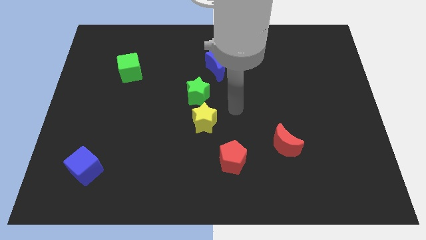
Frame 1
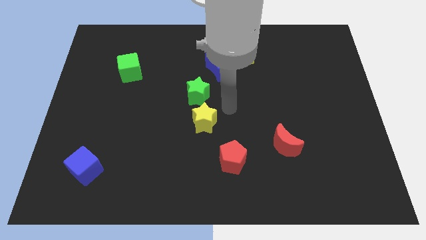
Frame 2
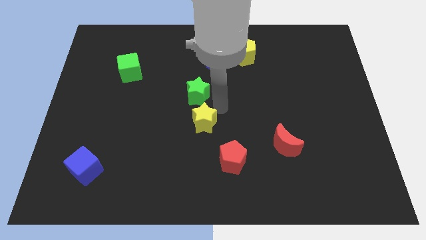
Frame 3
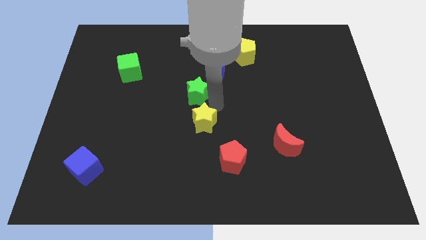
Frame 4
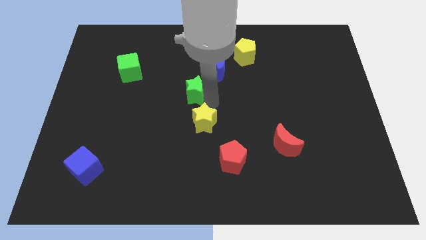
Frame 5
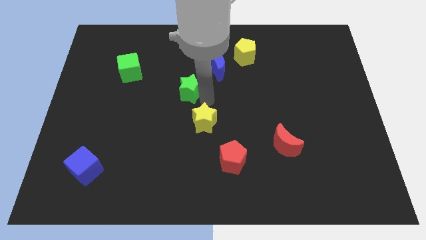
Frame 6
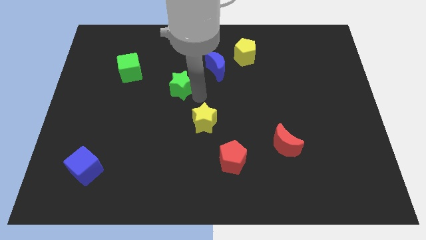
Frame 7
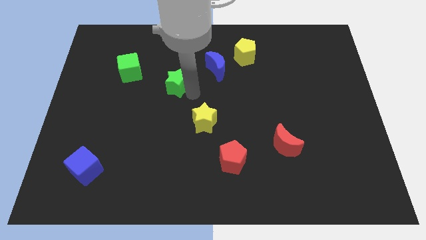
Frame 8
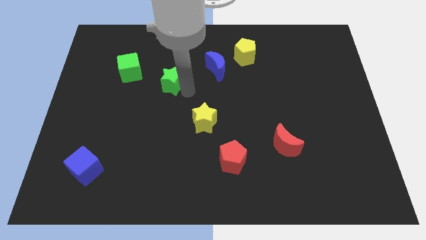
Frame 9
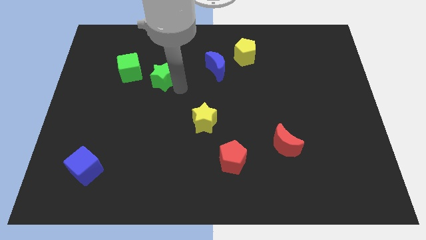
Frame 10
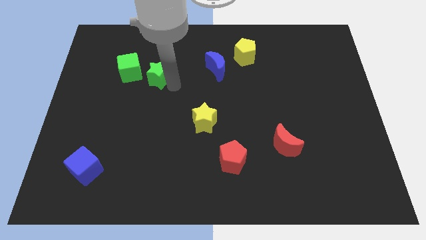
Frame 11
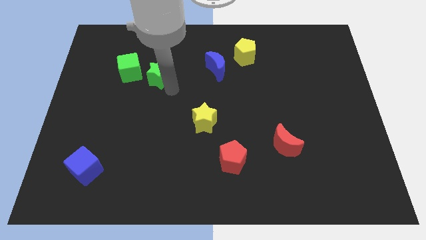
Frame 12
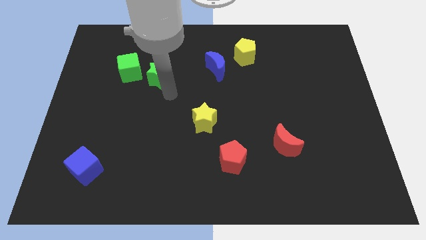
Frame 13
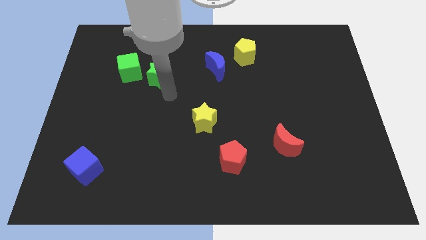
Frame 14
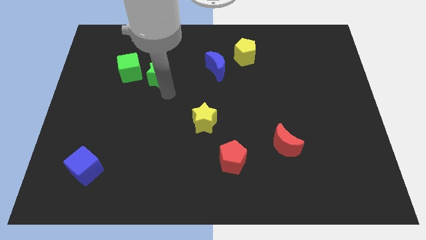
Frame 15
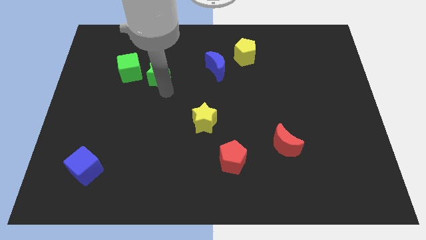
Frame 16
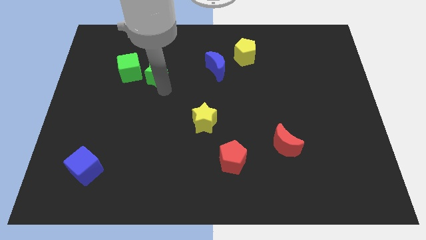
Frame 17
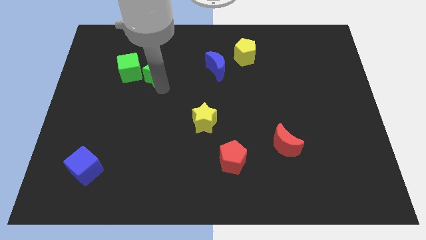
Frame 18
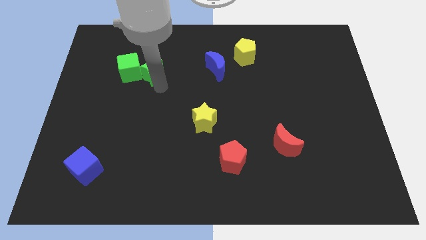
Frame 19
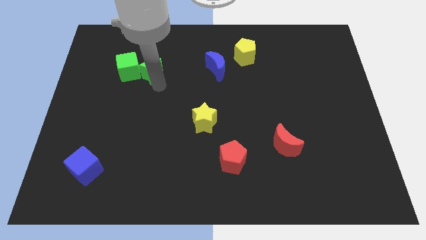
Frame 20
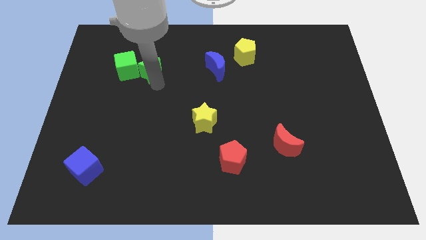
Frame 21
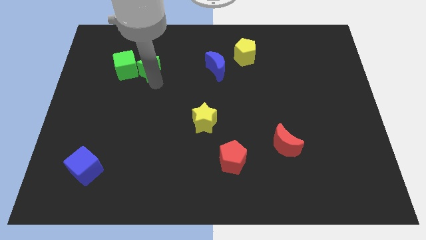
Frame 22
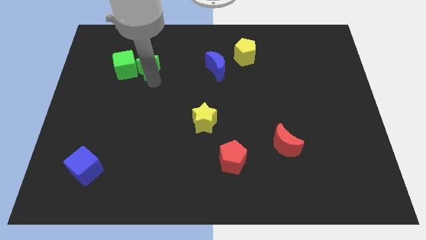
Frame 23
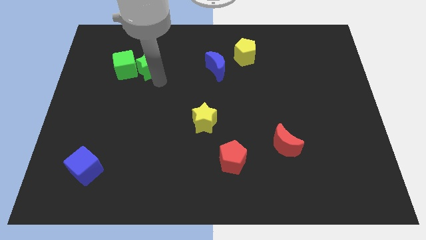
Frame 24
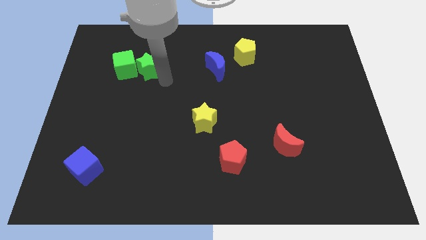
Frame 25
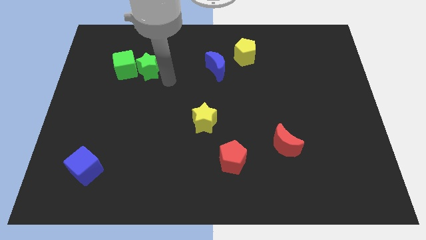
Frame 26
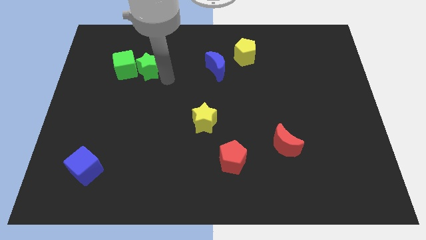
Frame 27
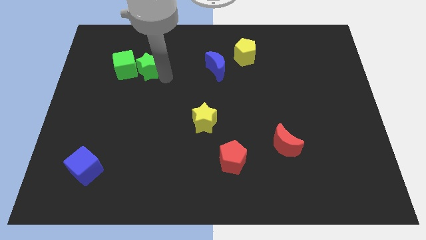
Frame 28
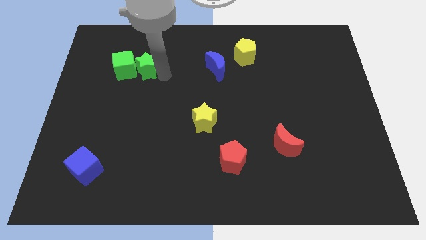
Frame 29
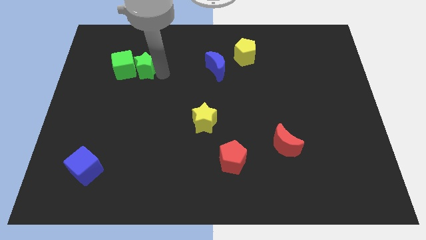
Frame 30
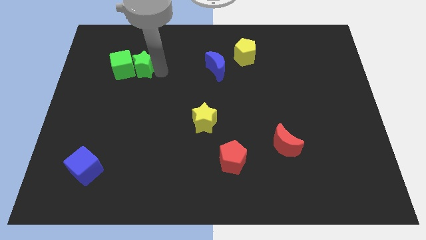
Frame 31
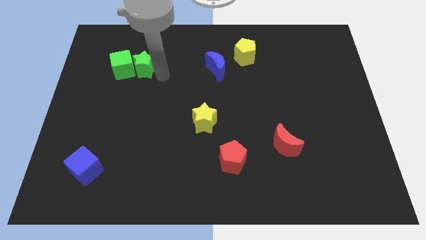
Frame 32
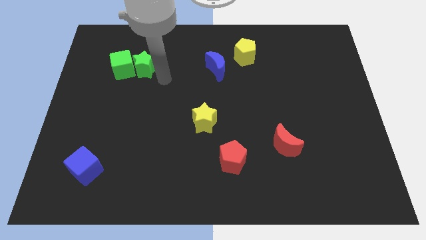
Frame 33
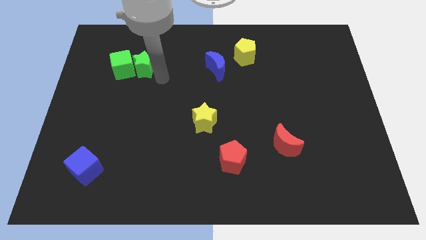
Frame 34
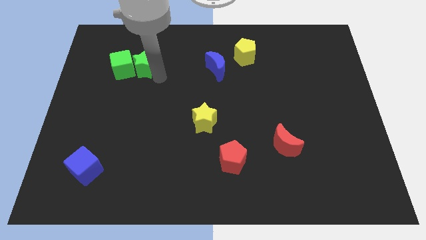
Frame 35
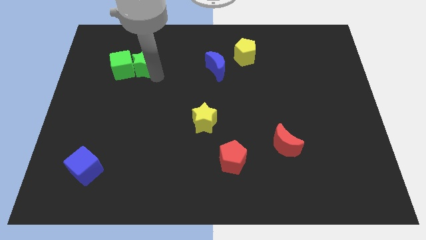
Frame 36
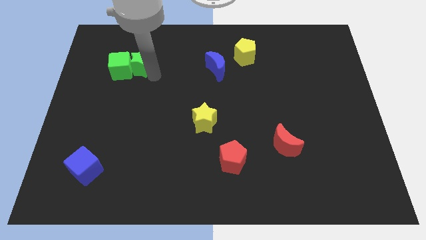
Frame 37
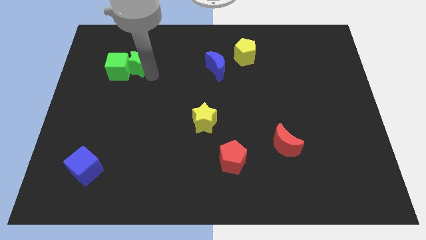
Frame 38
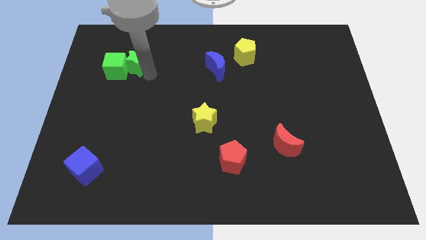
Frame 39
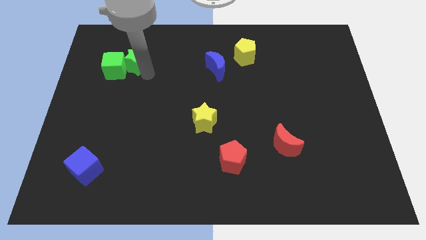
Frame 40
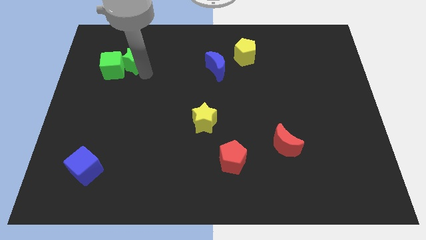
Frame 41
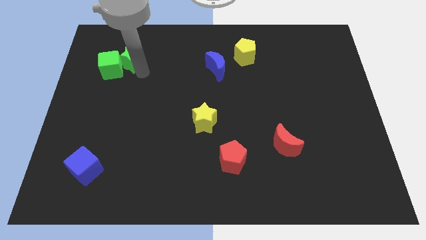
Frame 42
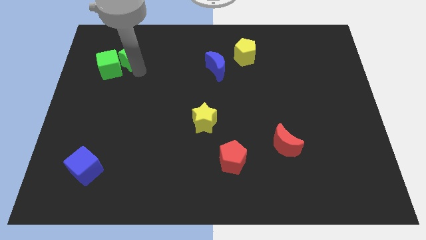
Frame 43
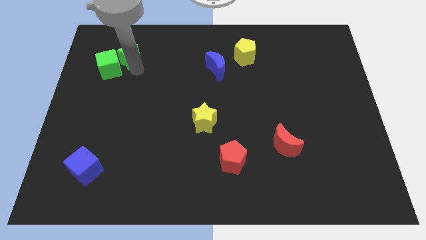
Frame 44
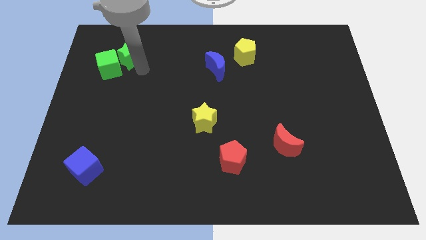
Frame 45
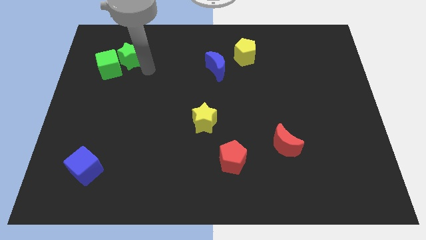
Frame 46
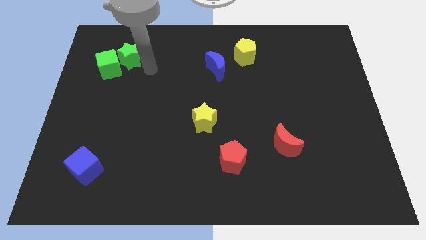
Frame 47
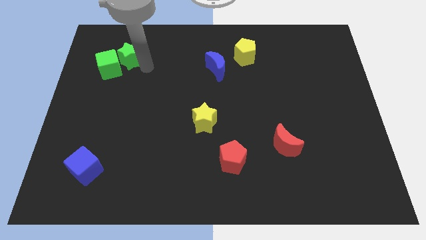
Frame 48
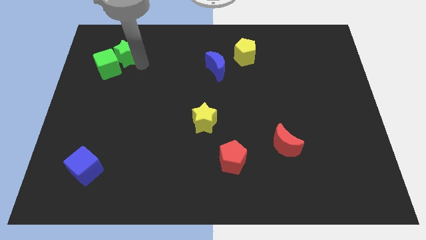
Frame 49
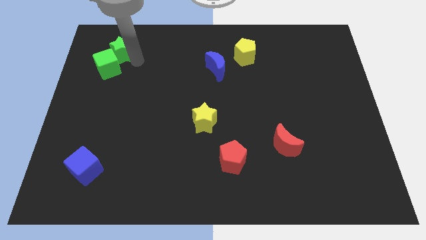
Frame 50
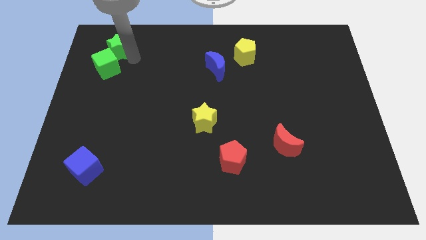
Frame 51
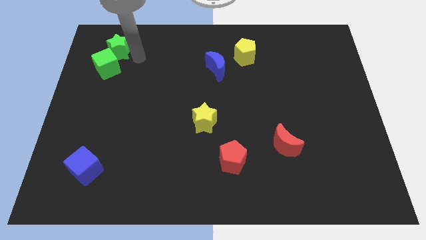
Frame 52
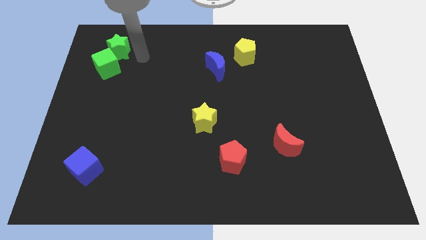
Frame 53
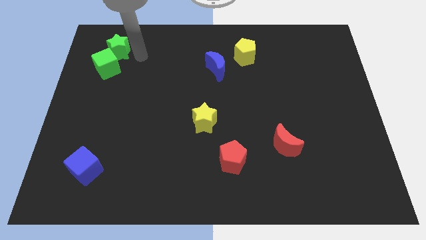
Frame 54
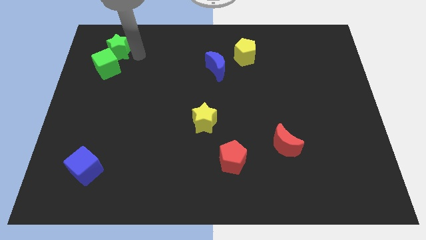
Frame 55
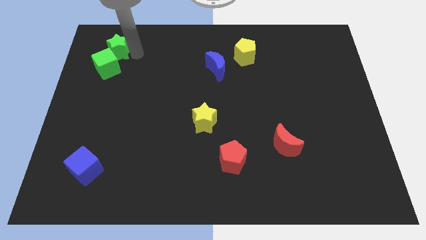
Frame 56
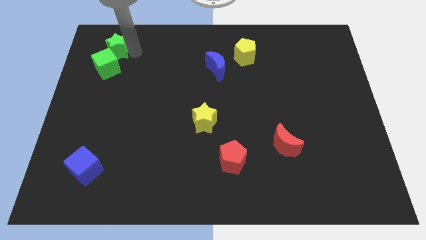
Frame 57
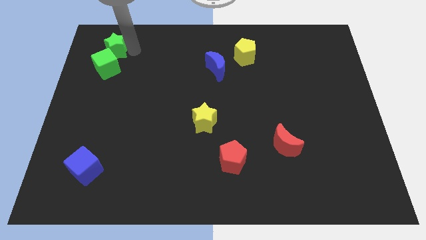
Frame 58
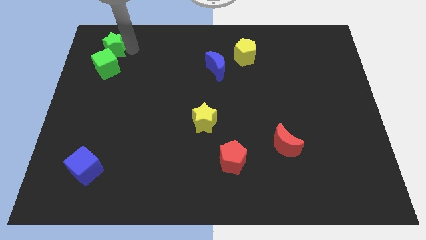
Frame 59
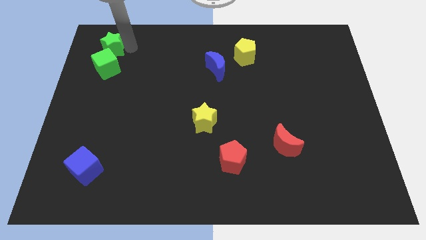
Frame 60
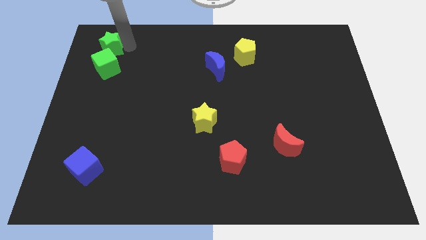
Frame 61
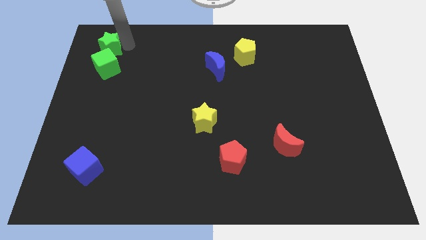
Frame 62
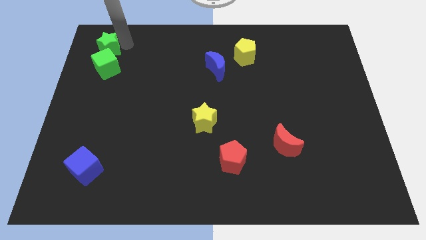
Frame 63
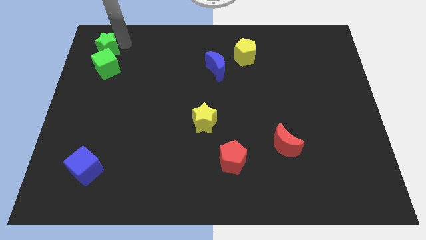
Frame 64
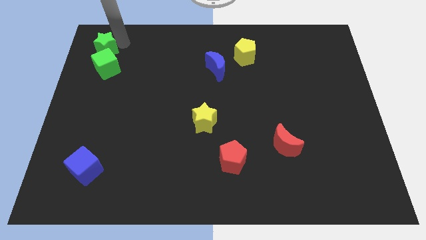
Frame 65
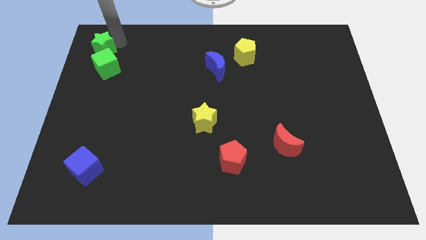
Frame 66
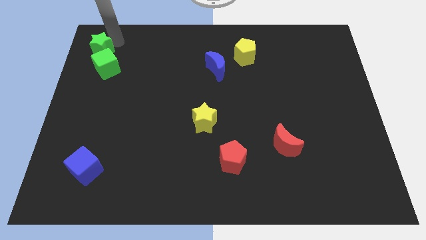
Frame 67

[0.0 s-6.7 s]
move the green star to the top left corner
